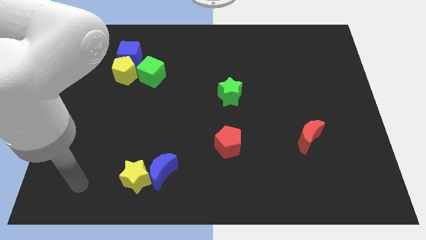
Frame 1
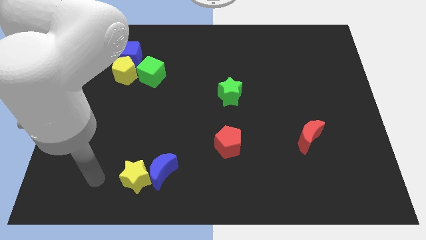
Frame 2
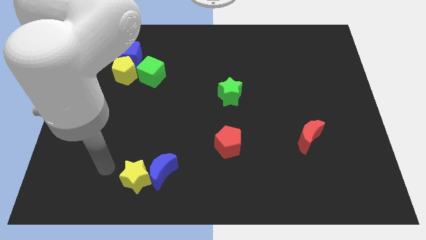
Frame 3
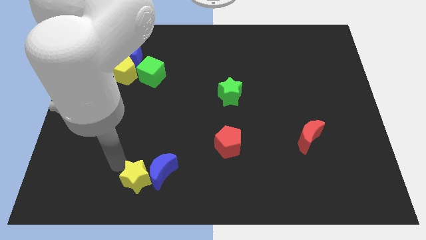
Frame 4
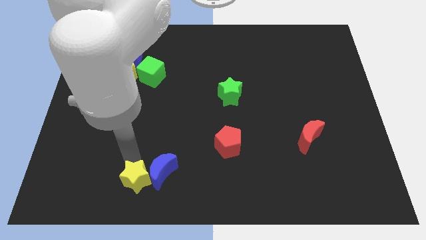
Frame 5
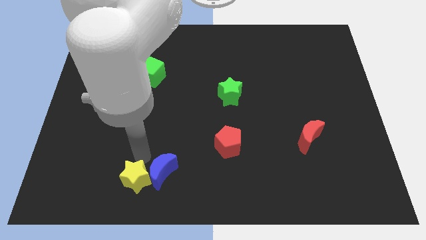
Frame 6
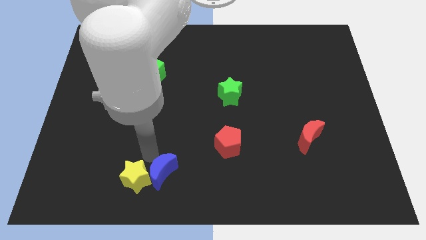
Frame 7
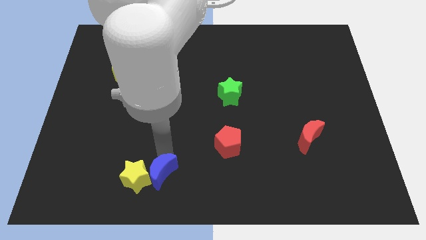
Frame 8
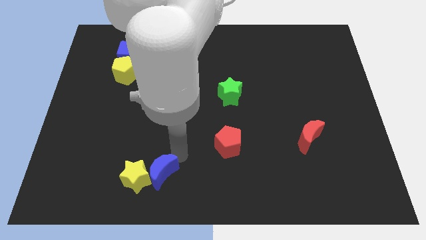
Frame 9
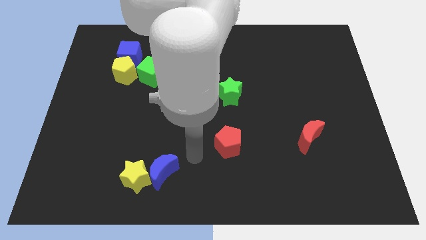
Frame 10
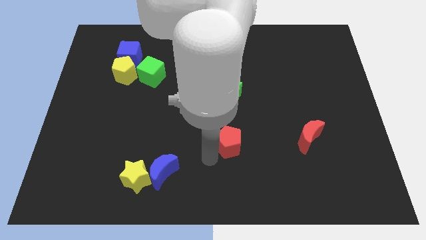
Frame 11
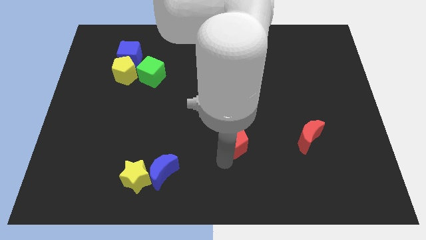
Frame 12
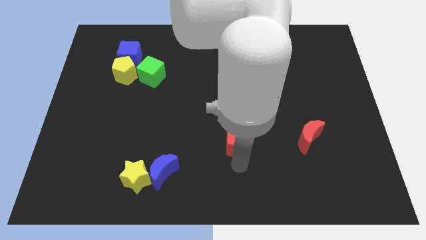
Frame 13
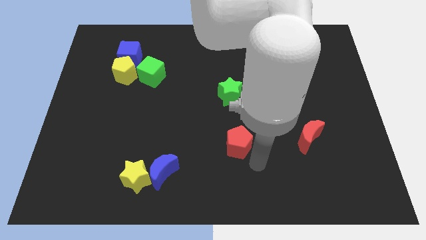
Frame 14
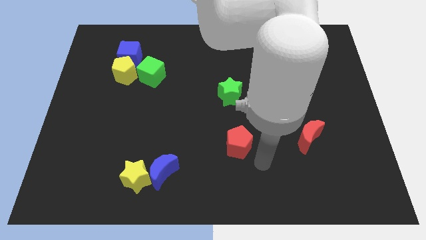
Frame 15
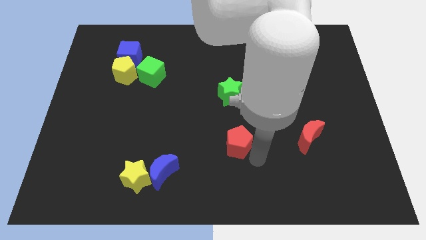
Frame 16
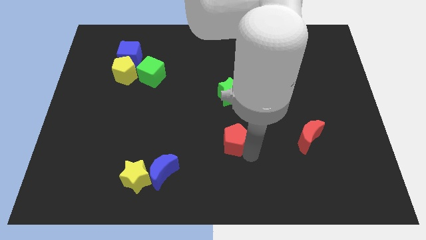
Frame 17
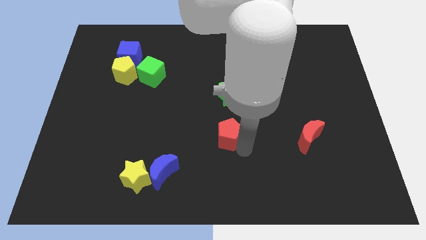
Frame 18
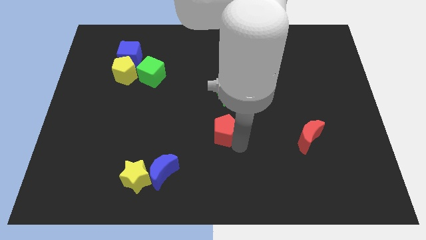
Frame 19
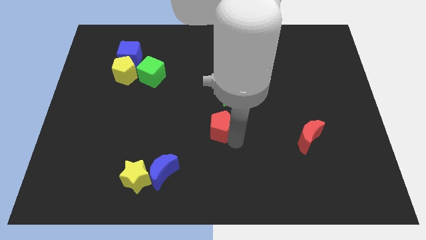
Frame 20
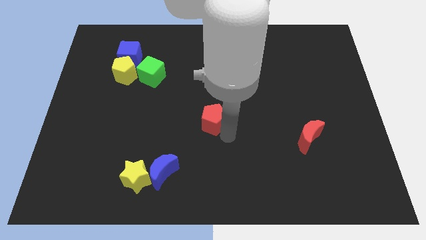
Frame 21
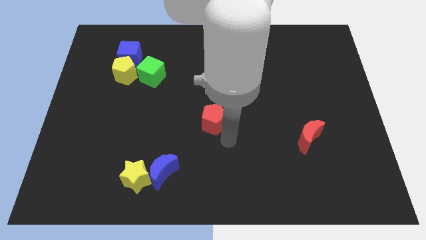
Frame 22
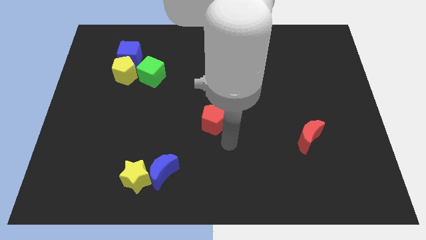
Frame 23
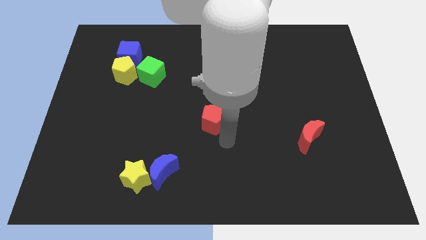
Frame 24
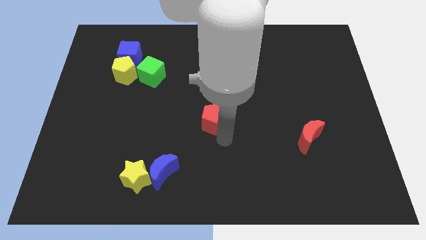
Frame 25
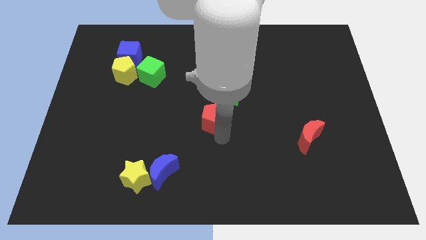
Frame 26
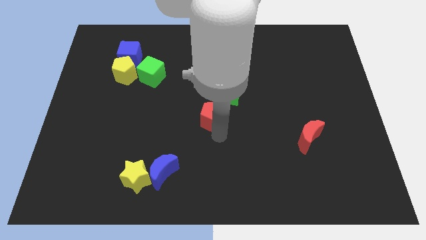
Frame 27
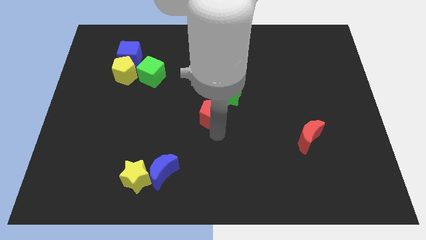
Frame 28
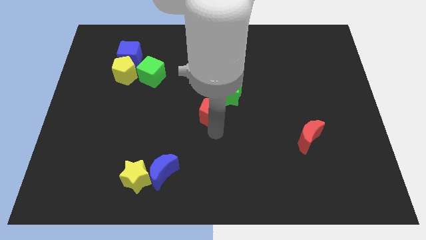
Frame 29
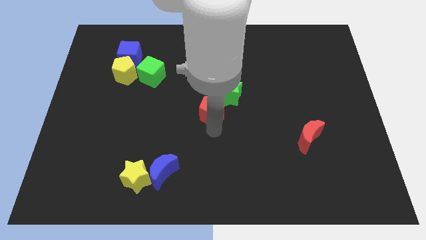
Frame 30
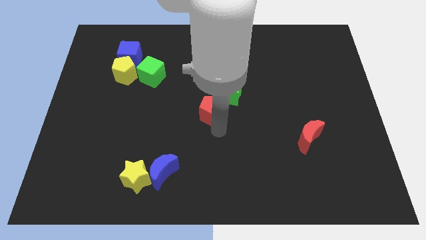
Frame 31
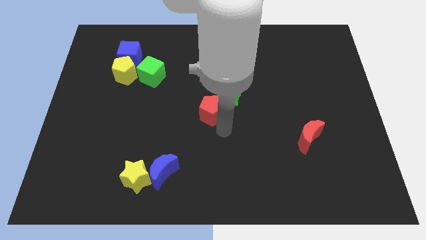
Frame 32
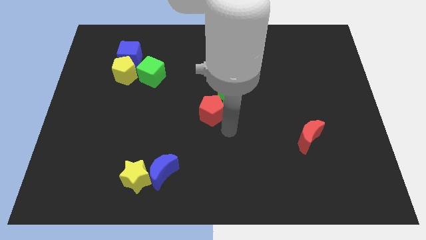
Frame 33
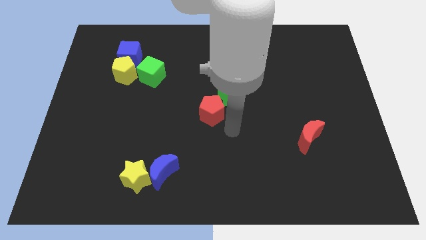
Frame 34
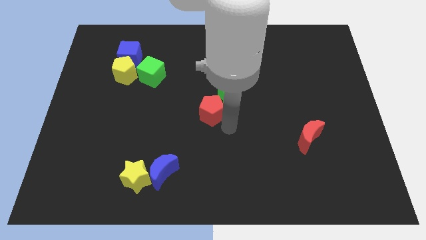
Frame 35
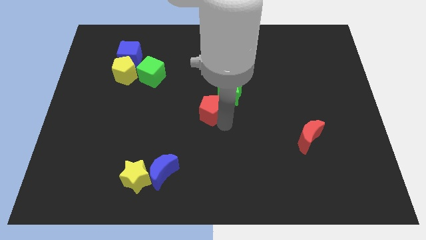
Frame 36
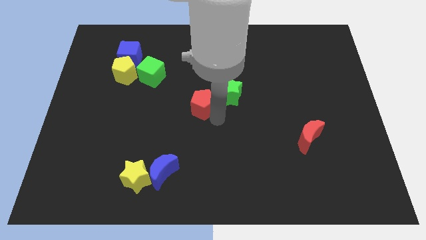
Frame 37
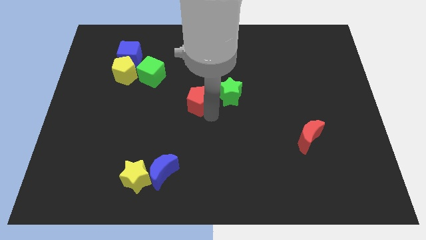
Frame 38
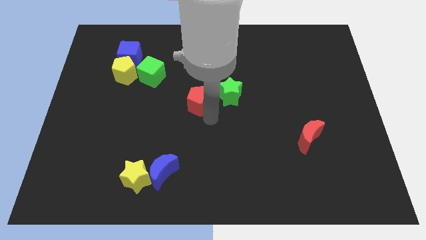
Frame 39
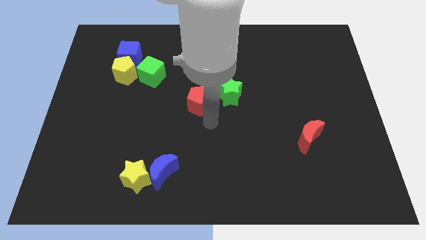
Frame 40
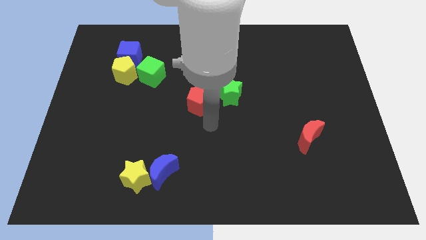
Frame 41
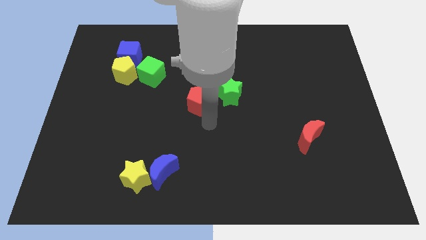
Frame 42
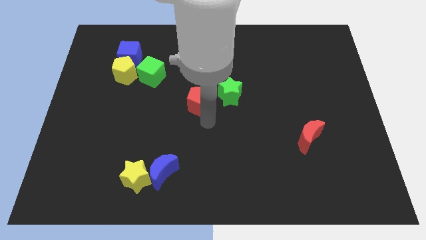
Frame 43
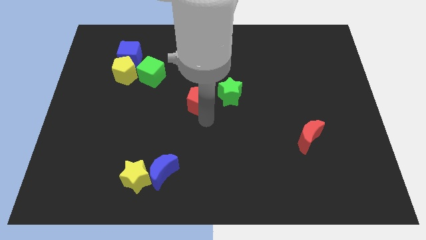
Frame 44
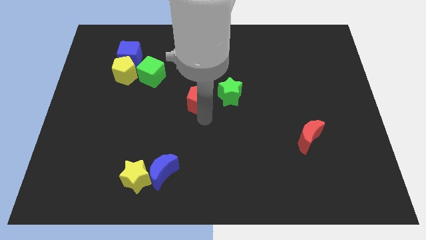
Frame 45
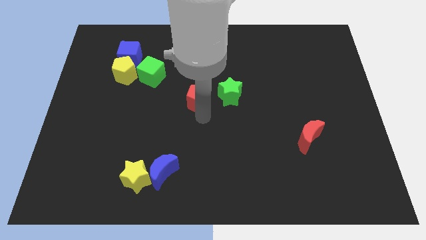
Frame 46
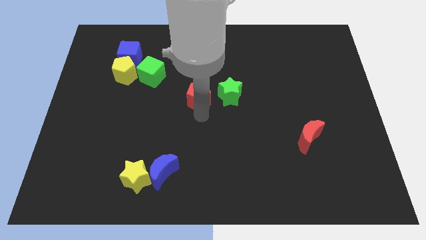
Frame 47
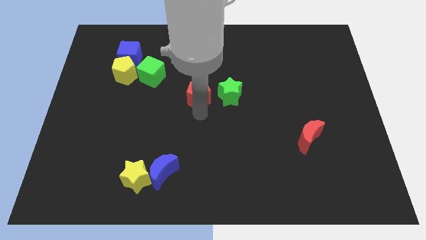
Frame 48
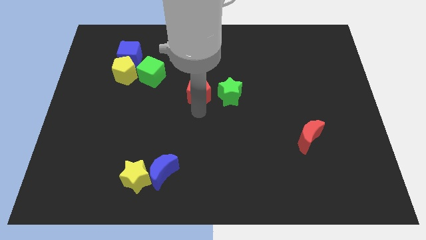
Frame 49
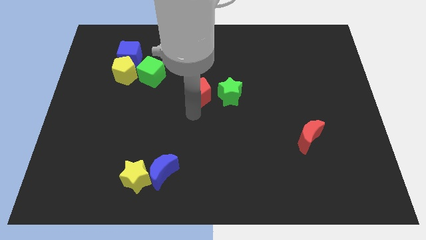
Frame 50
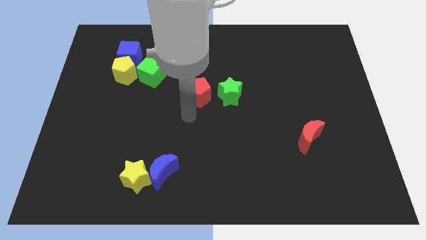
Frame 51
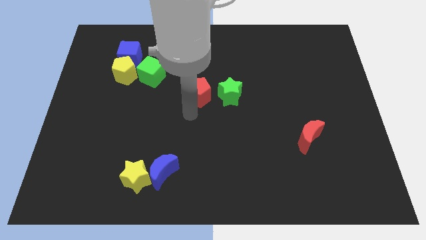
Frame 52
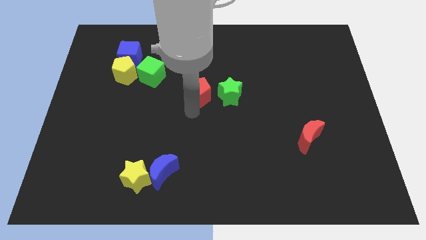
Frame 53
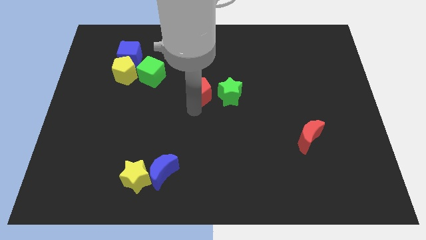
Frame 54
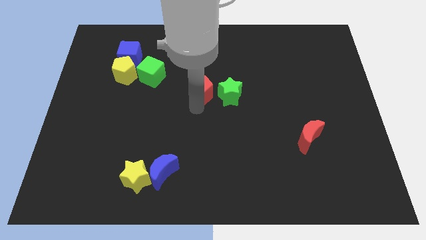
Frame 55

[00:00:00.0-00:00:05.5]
push the red pentagon diagonally up and to the left of the green star
